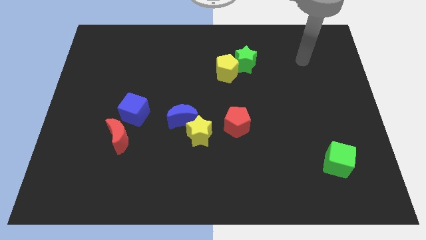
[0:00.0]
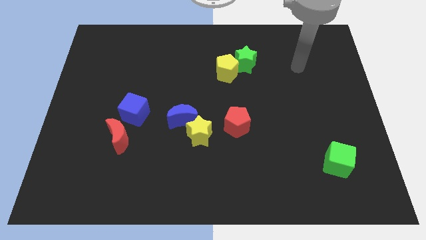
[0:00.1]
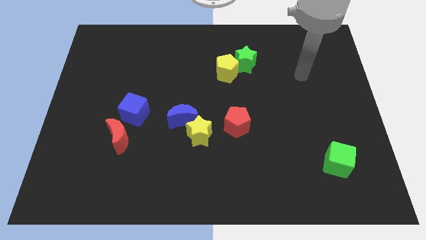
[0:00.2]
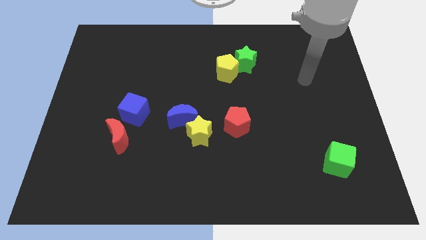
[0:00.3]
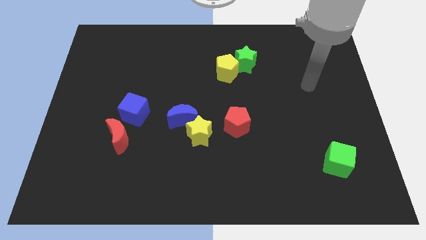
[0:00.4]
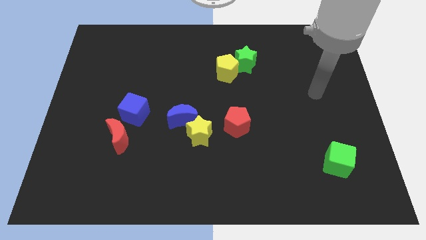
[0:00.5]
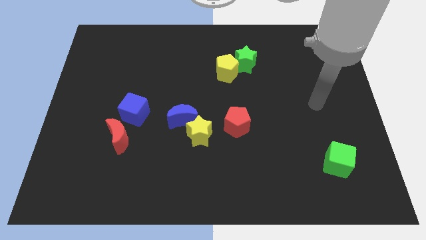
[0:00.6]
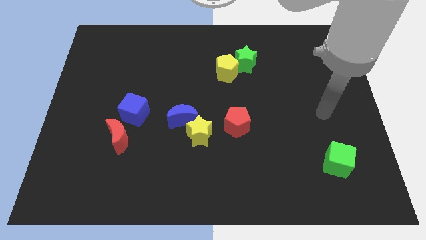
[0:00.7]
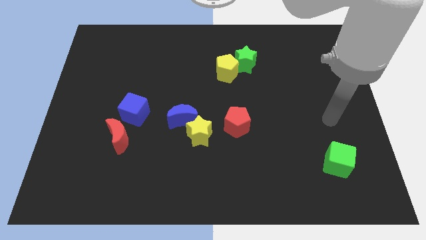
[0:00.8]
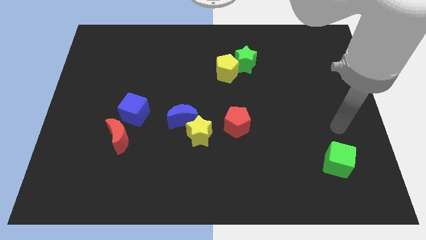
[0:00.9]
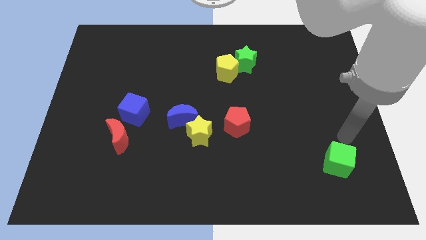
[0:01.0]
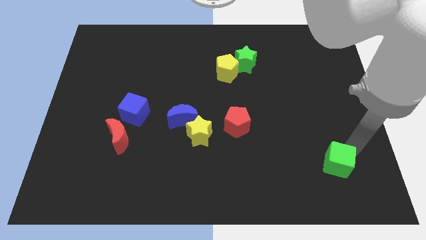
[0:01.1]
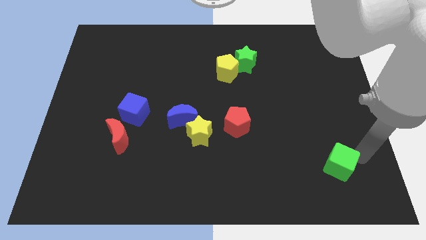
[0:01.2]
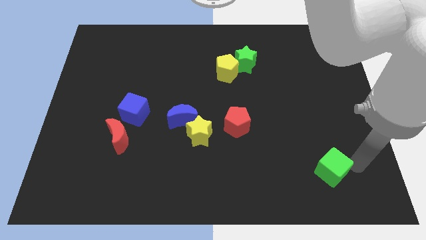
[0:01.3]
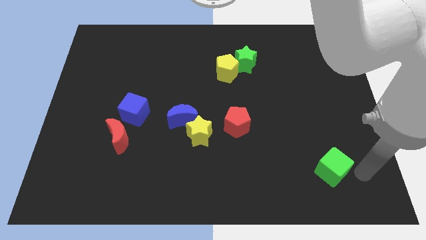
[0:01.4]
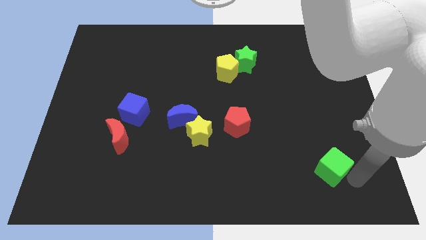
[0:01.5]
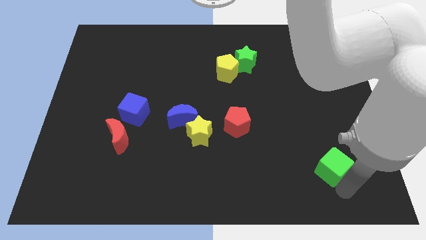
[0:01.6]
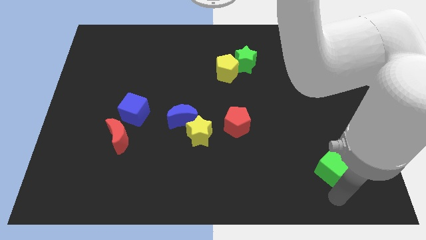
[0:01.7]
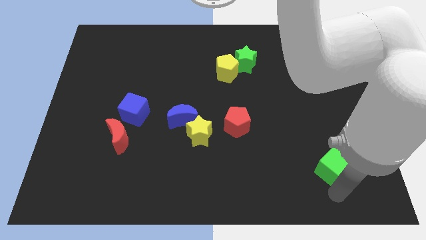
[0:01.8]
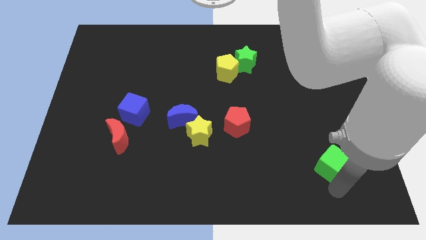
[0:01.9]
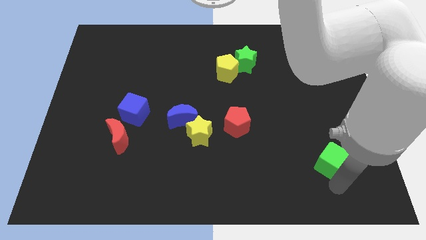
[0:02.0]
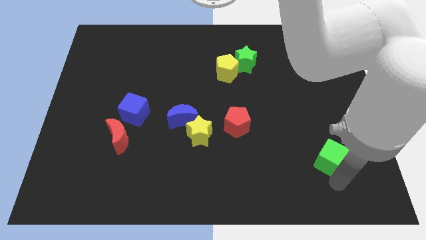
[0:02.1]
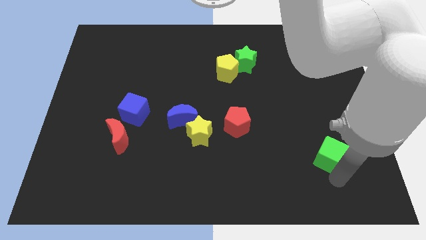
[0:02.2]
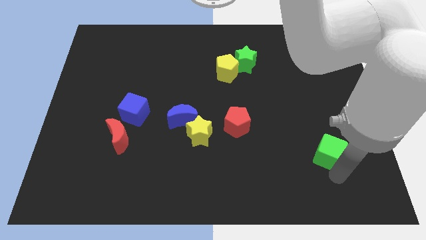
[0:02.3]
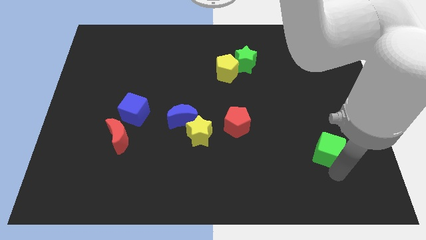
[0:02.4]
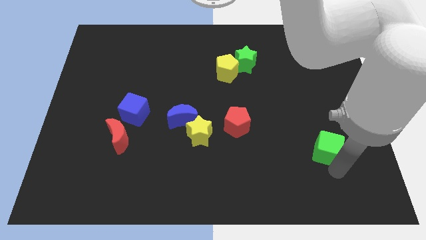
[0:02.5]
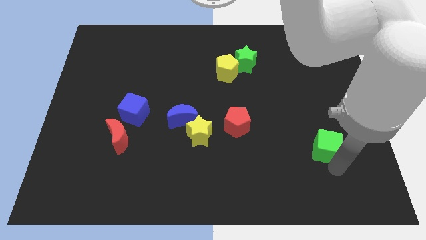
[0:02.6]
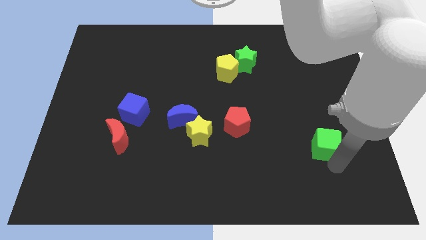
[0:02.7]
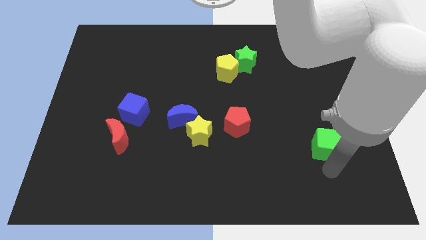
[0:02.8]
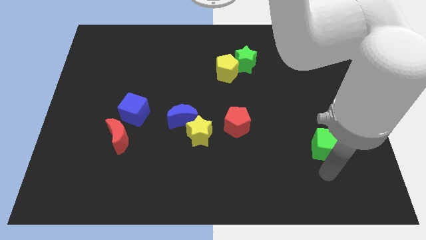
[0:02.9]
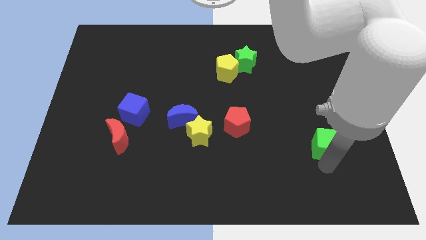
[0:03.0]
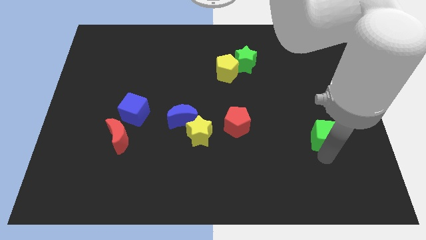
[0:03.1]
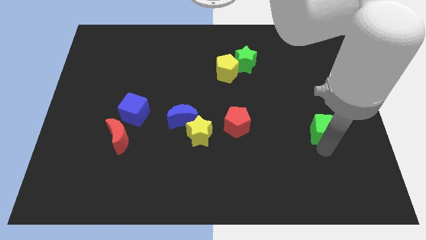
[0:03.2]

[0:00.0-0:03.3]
move the green cube a bit up

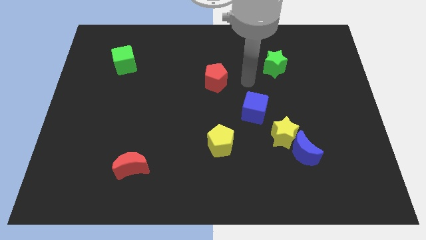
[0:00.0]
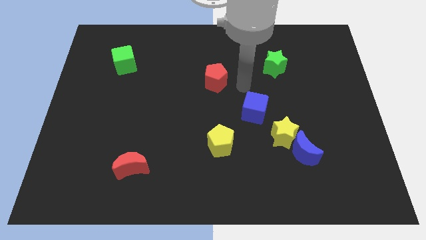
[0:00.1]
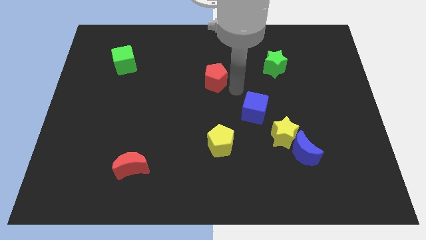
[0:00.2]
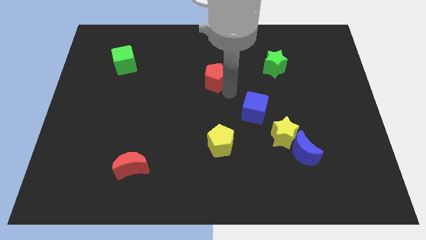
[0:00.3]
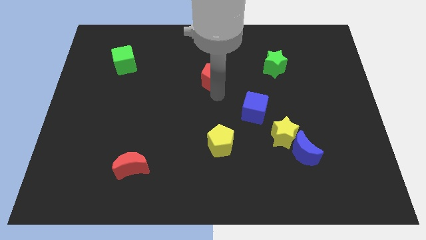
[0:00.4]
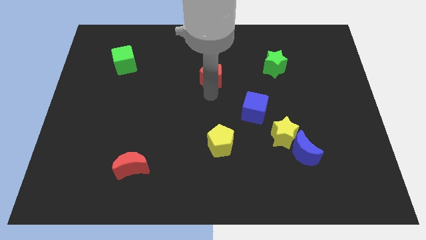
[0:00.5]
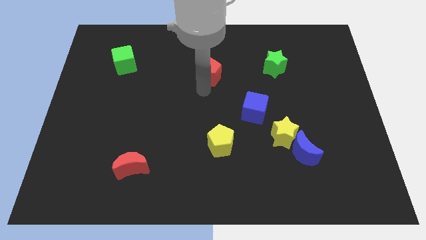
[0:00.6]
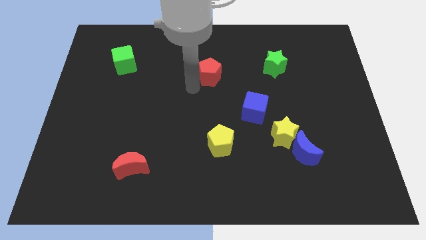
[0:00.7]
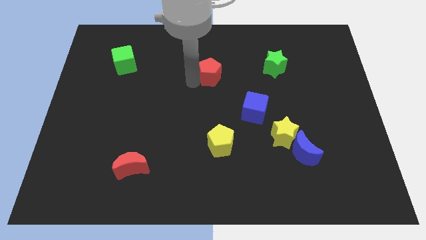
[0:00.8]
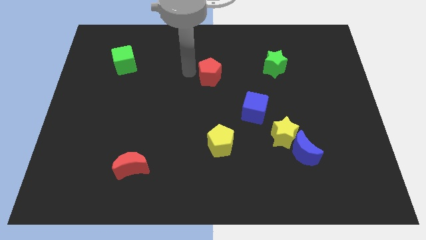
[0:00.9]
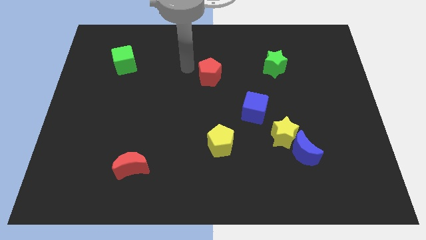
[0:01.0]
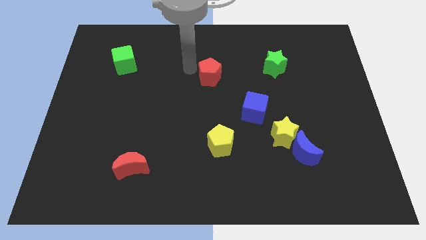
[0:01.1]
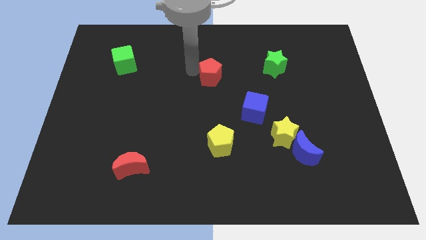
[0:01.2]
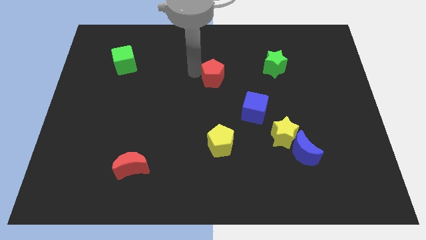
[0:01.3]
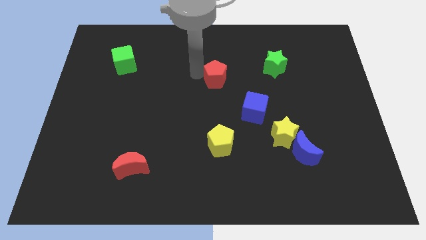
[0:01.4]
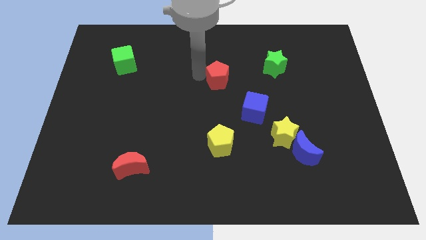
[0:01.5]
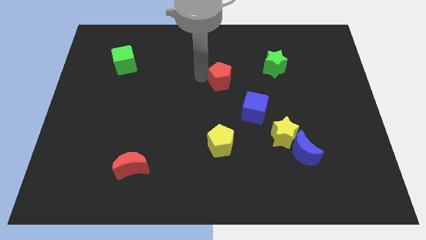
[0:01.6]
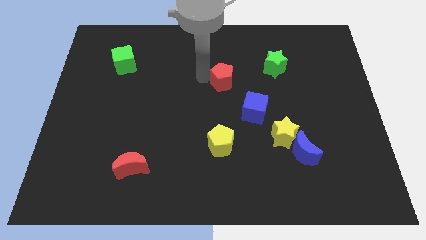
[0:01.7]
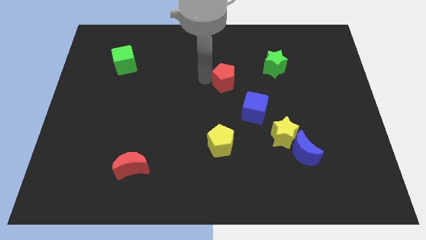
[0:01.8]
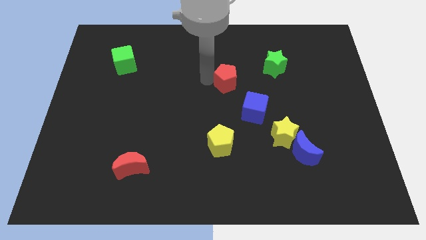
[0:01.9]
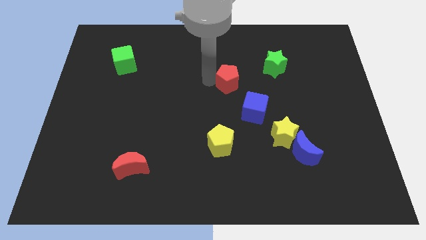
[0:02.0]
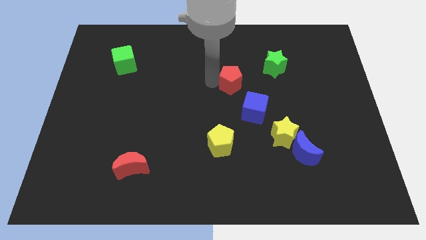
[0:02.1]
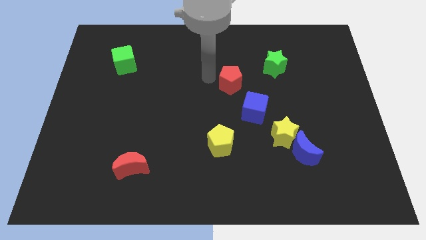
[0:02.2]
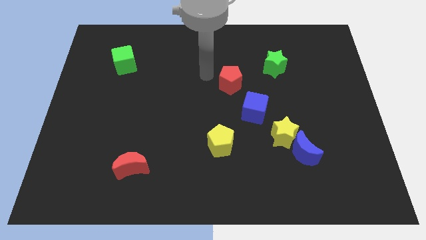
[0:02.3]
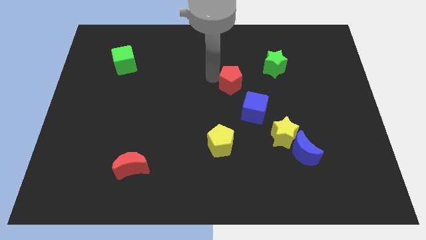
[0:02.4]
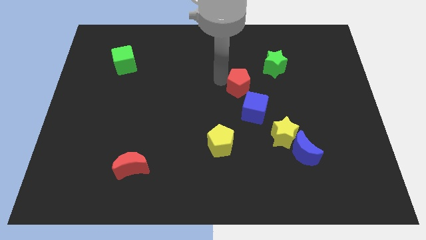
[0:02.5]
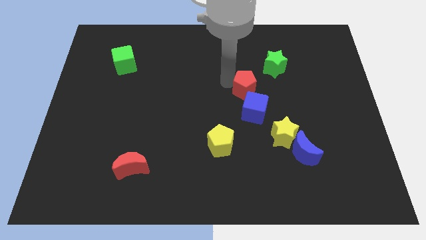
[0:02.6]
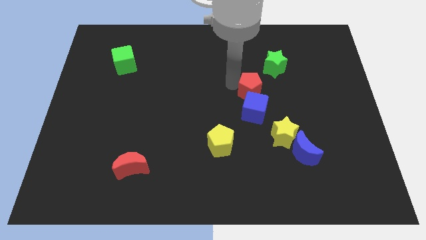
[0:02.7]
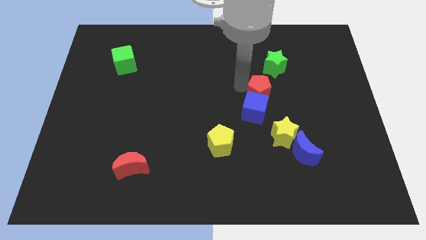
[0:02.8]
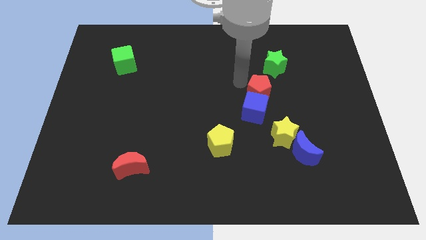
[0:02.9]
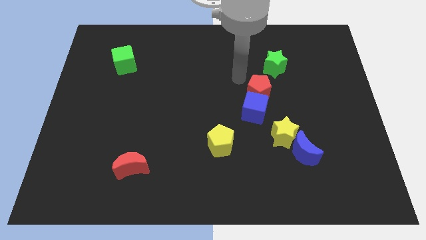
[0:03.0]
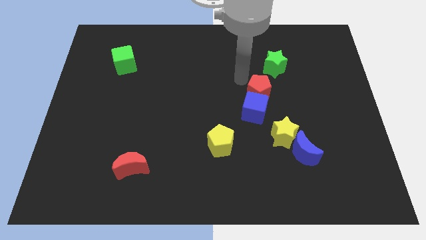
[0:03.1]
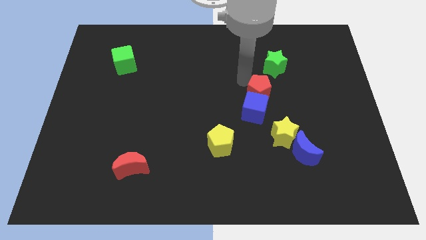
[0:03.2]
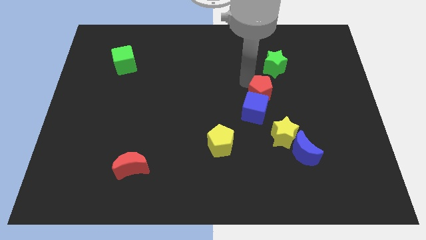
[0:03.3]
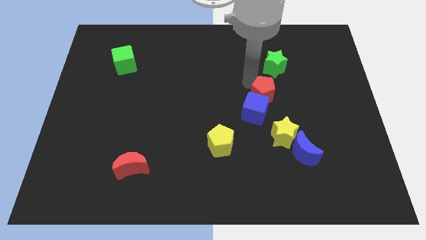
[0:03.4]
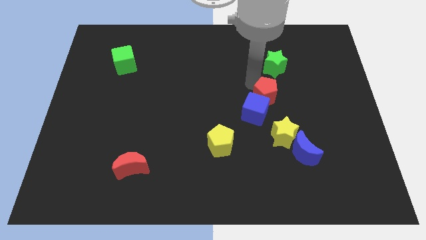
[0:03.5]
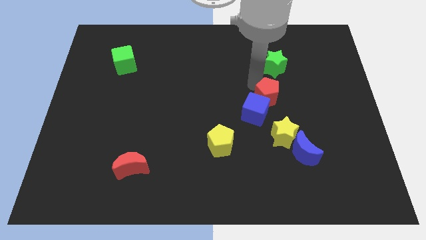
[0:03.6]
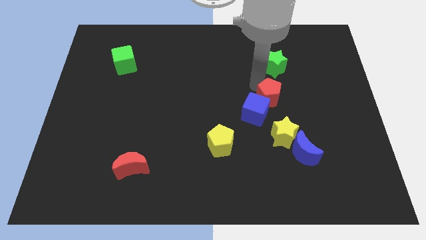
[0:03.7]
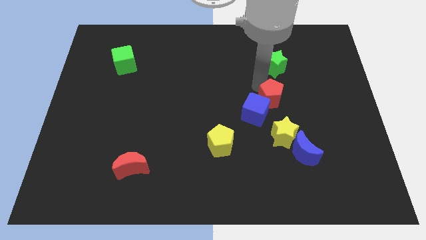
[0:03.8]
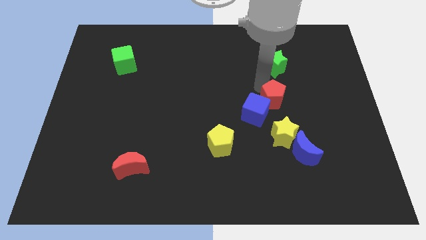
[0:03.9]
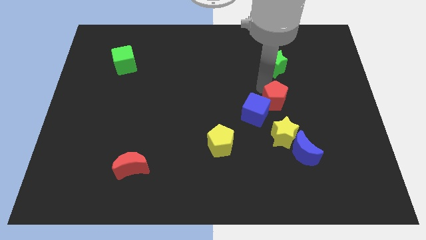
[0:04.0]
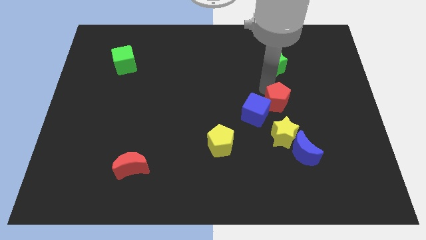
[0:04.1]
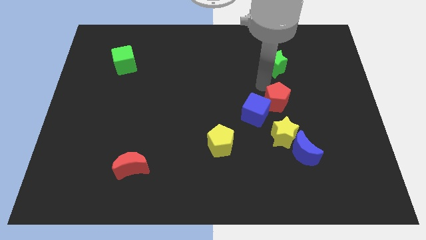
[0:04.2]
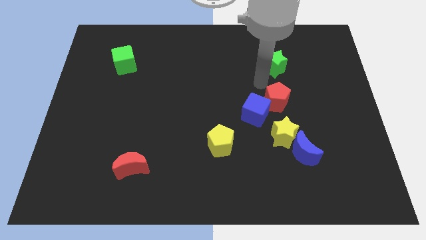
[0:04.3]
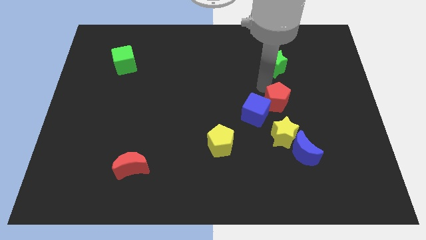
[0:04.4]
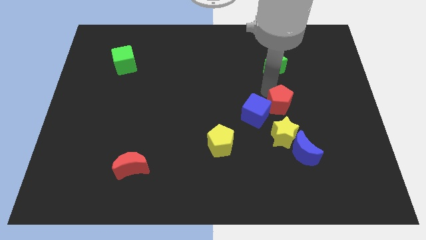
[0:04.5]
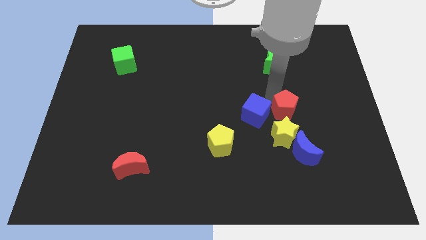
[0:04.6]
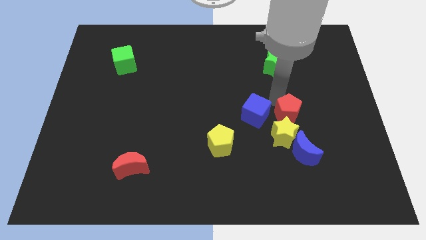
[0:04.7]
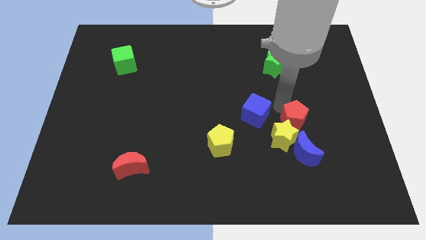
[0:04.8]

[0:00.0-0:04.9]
slide the red pentagon diagonally downwards and to the right
